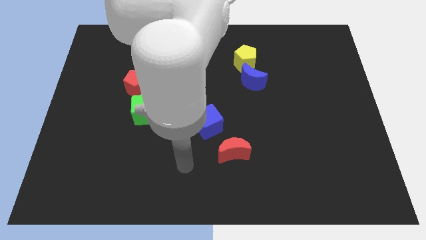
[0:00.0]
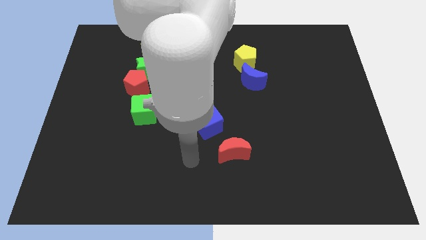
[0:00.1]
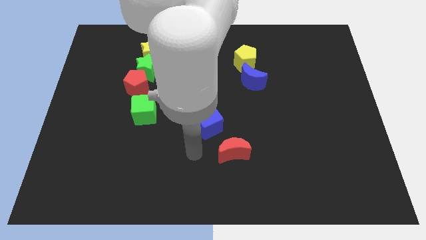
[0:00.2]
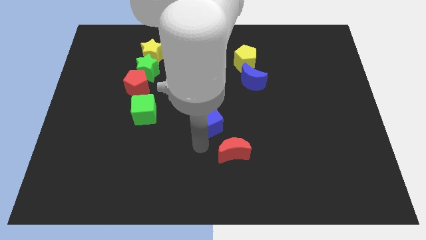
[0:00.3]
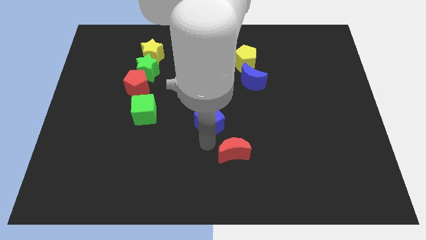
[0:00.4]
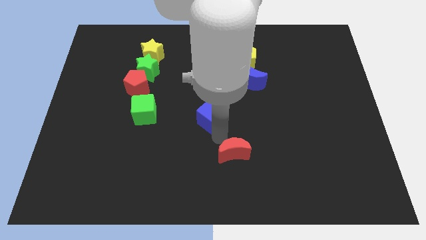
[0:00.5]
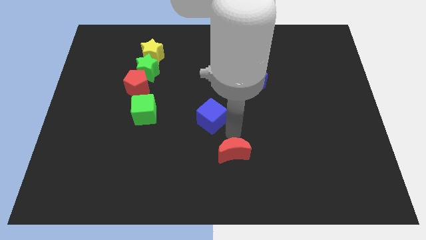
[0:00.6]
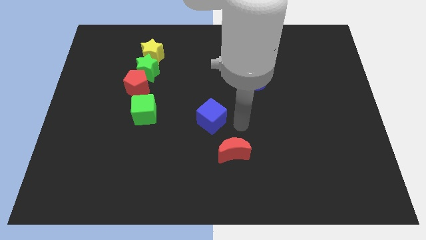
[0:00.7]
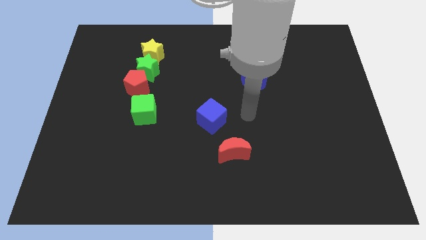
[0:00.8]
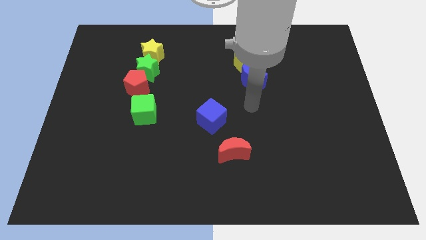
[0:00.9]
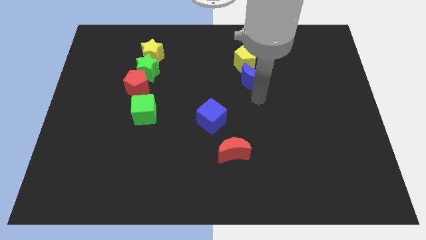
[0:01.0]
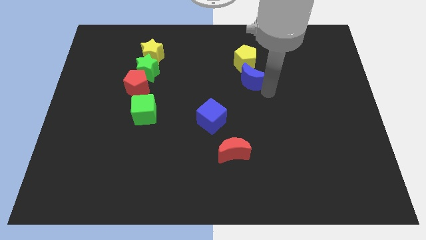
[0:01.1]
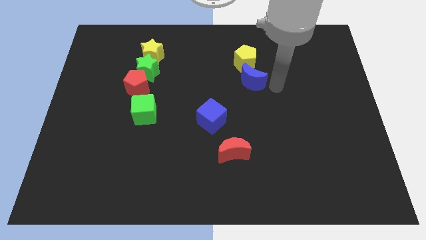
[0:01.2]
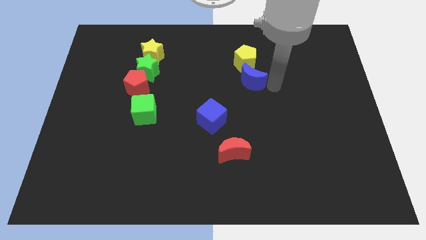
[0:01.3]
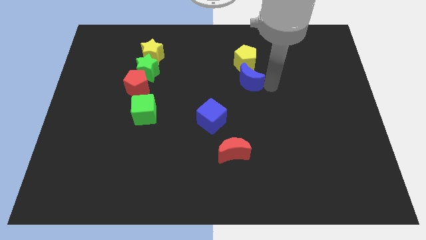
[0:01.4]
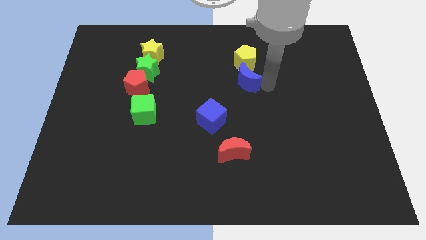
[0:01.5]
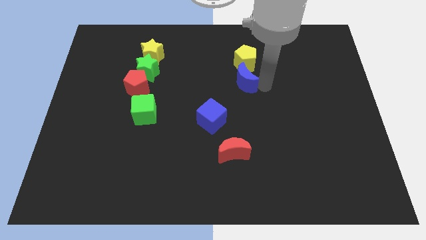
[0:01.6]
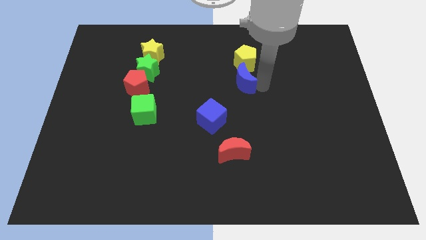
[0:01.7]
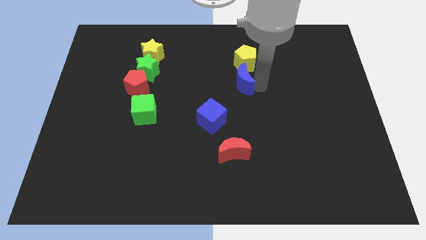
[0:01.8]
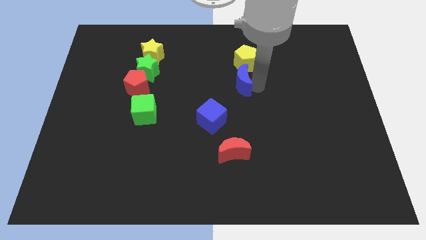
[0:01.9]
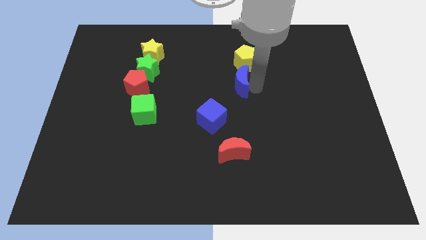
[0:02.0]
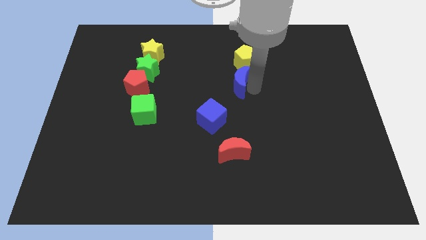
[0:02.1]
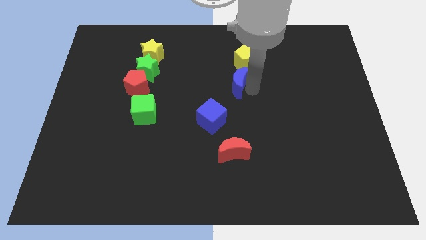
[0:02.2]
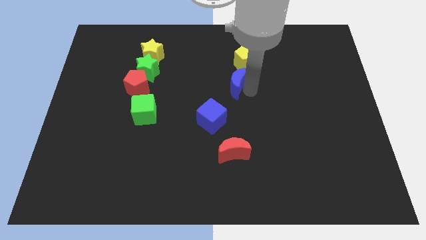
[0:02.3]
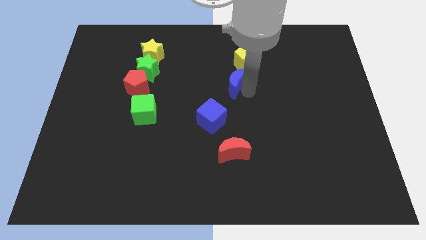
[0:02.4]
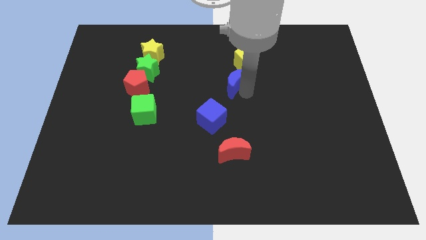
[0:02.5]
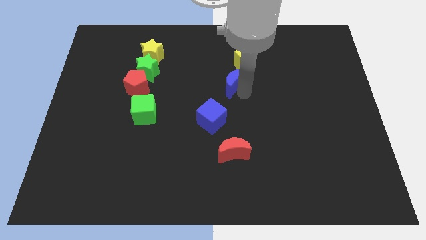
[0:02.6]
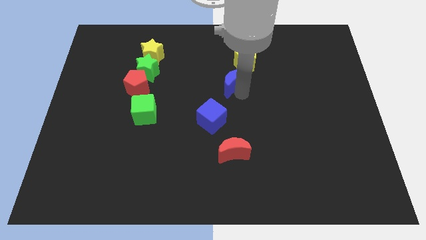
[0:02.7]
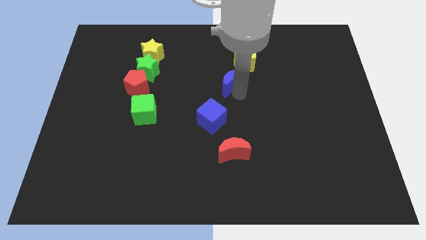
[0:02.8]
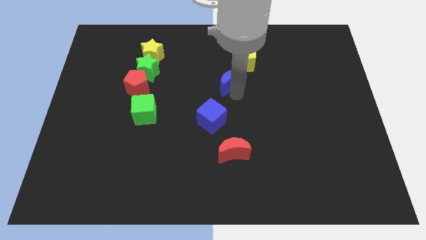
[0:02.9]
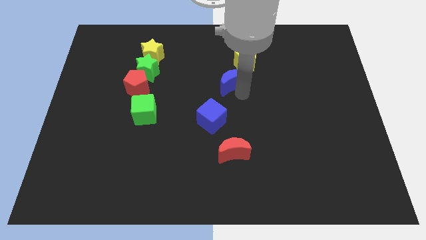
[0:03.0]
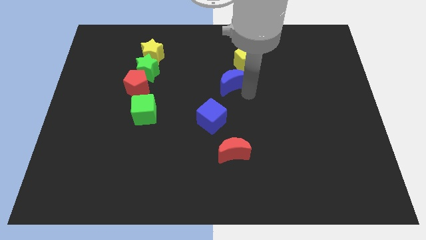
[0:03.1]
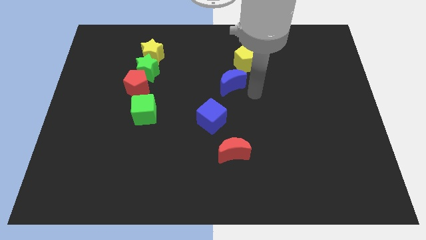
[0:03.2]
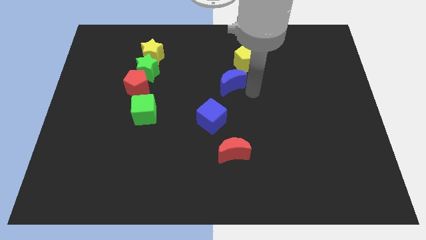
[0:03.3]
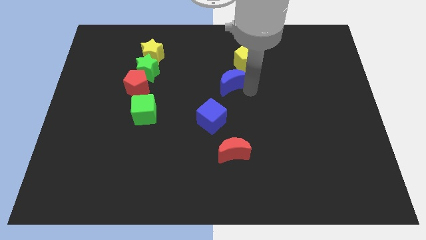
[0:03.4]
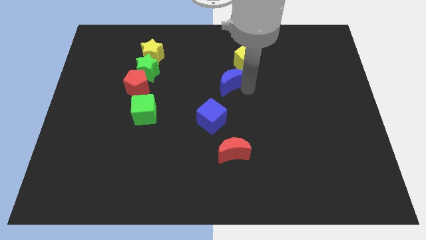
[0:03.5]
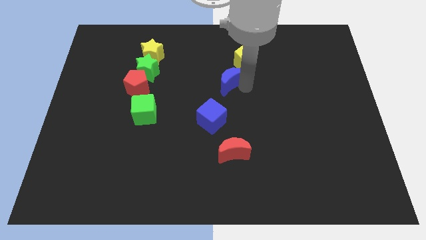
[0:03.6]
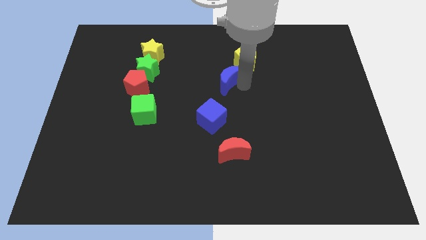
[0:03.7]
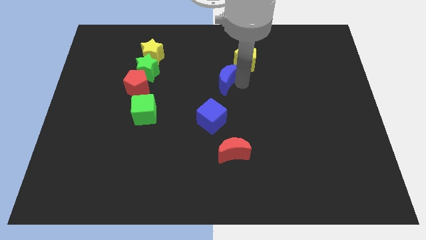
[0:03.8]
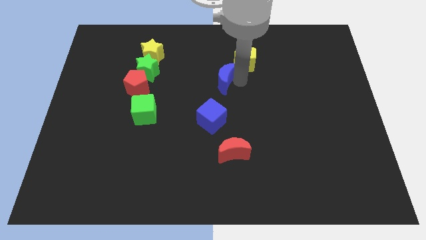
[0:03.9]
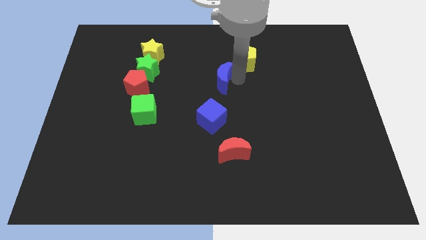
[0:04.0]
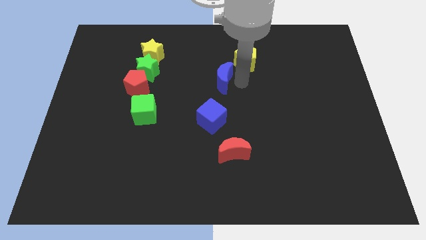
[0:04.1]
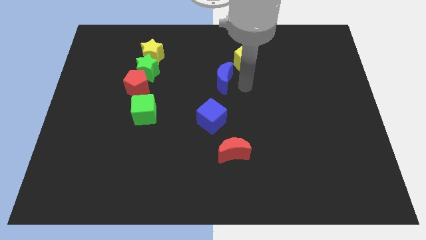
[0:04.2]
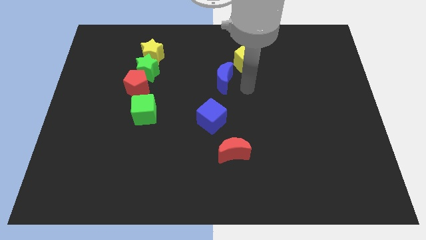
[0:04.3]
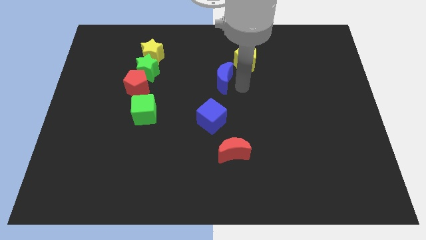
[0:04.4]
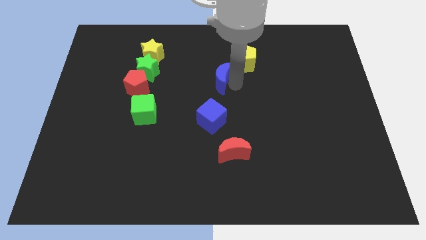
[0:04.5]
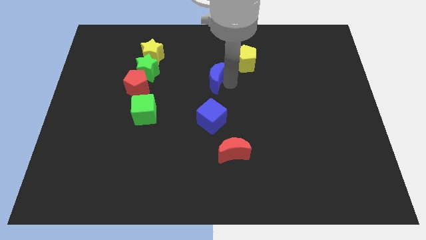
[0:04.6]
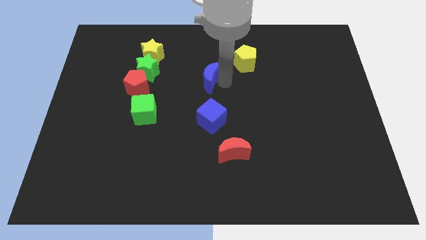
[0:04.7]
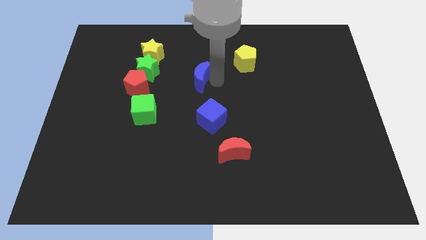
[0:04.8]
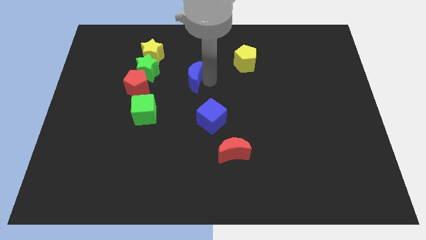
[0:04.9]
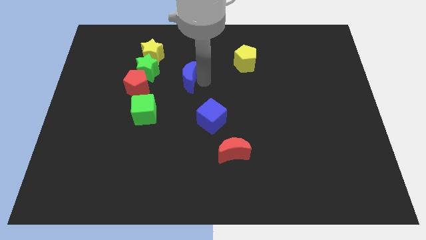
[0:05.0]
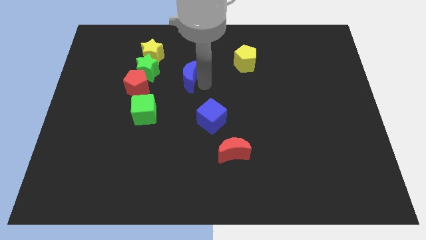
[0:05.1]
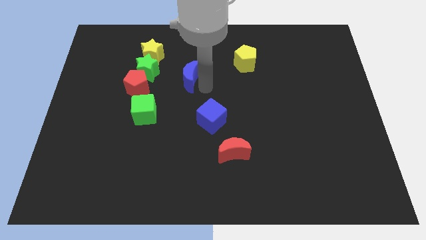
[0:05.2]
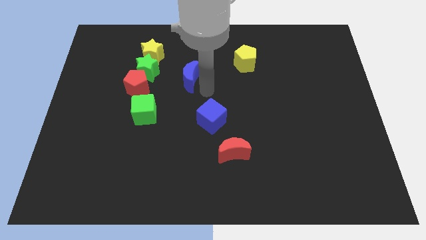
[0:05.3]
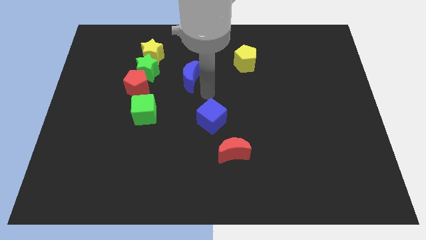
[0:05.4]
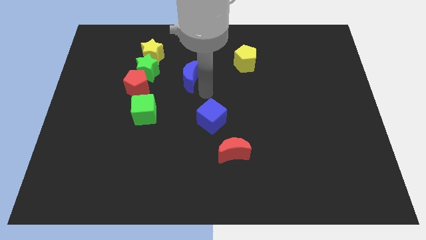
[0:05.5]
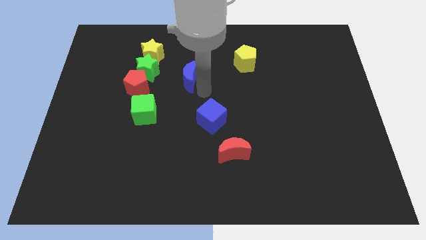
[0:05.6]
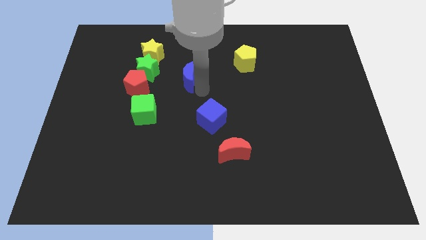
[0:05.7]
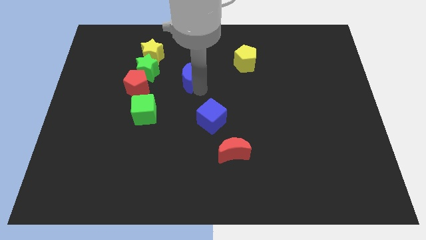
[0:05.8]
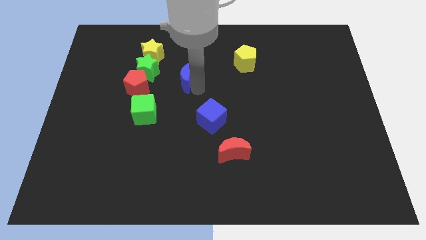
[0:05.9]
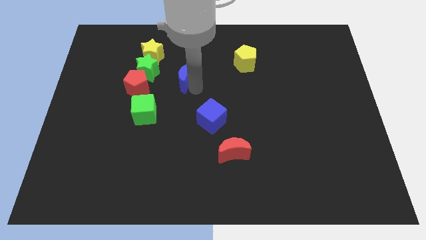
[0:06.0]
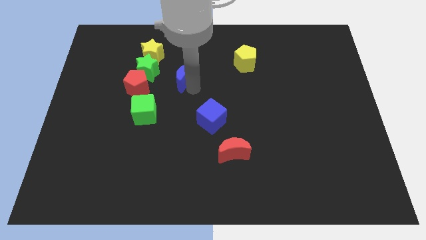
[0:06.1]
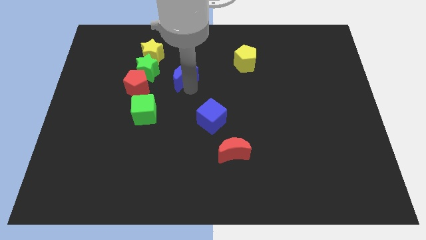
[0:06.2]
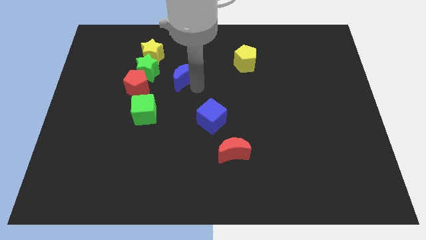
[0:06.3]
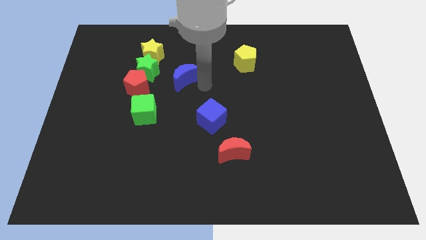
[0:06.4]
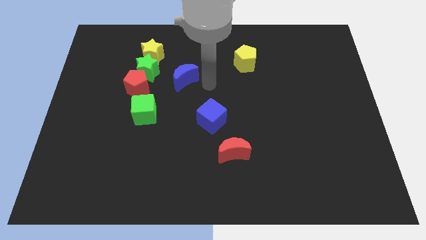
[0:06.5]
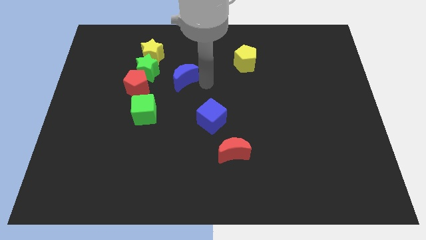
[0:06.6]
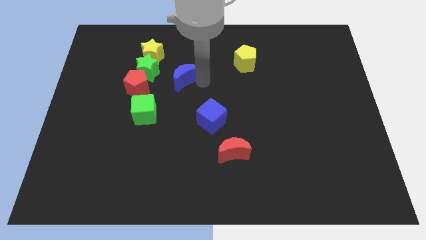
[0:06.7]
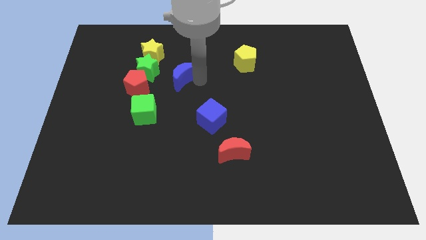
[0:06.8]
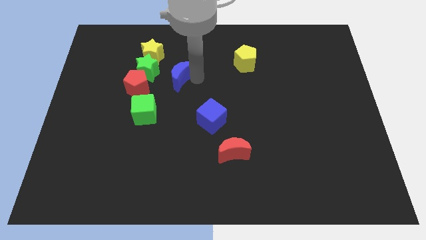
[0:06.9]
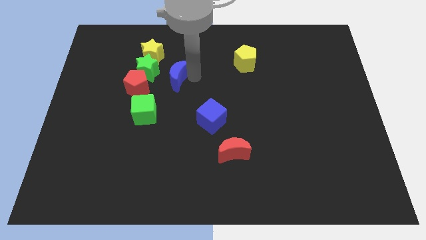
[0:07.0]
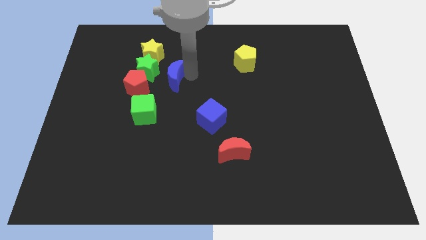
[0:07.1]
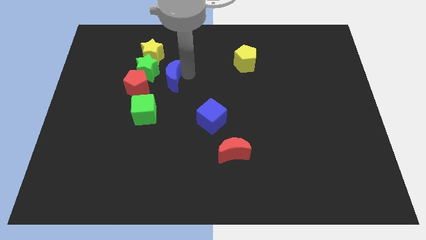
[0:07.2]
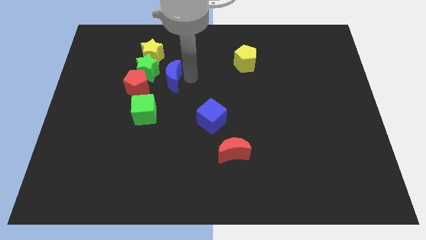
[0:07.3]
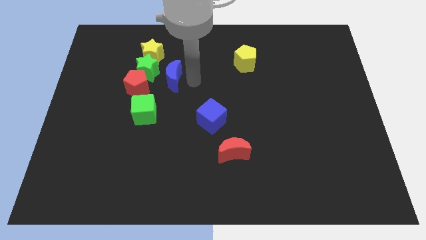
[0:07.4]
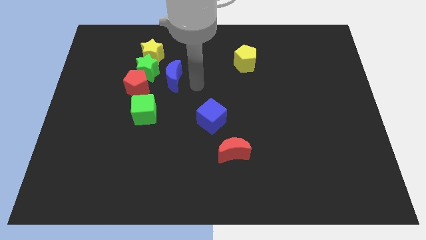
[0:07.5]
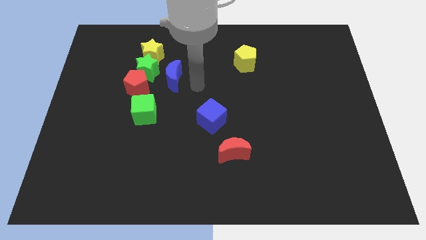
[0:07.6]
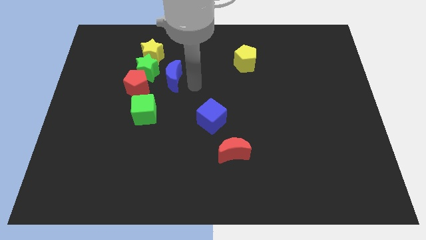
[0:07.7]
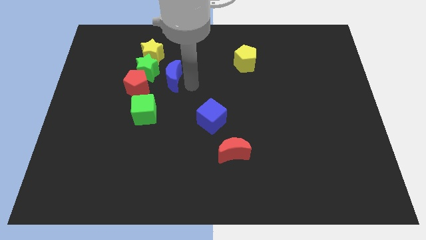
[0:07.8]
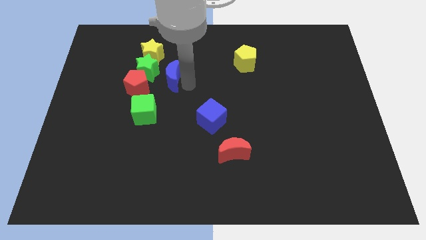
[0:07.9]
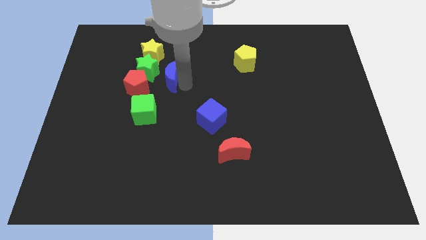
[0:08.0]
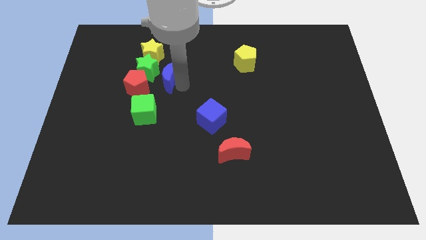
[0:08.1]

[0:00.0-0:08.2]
move the blue moon next to the green star
